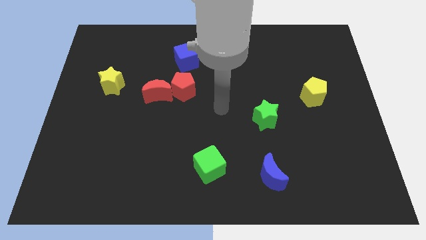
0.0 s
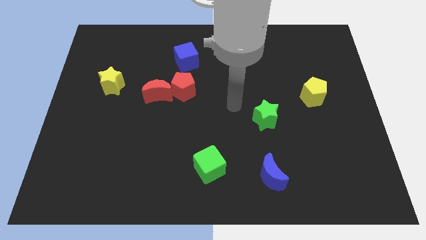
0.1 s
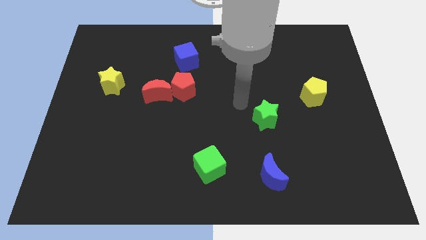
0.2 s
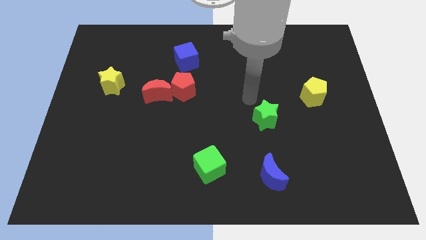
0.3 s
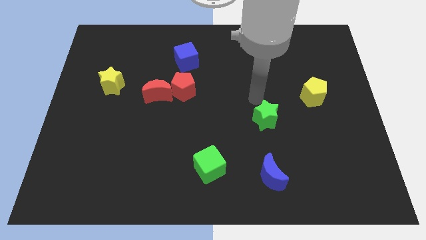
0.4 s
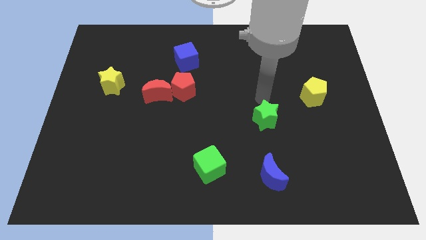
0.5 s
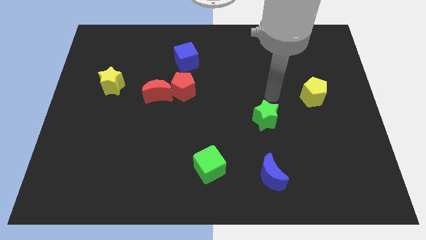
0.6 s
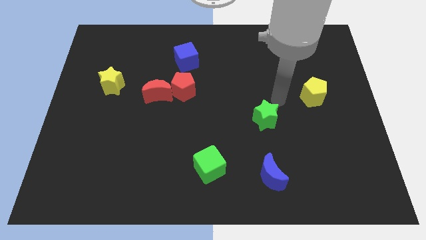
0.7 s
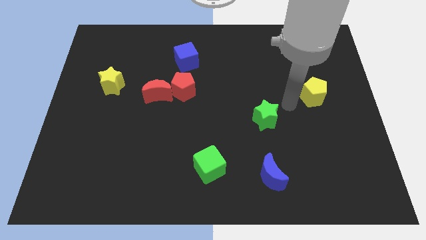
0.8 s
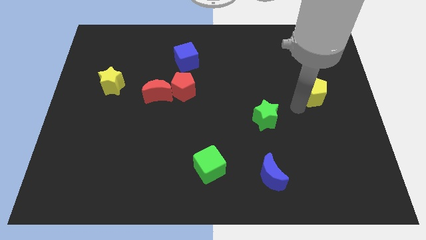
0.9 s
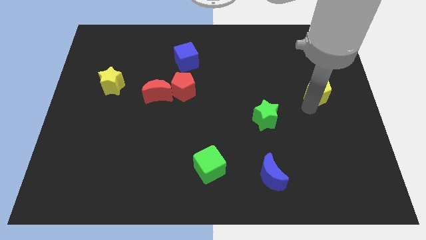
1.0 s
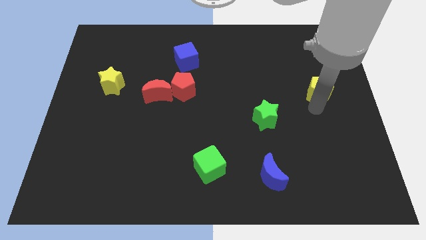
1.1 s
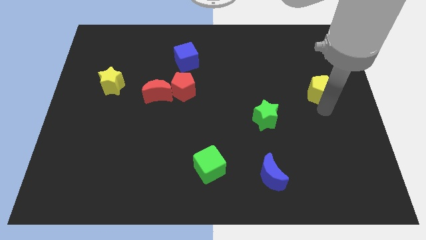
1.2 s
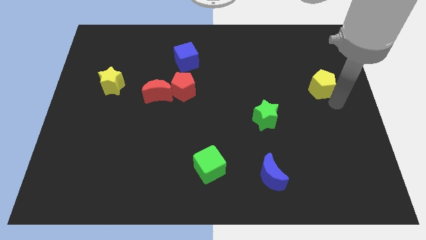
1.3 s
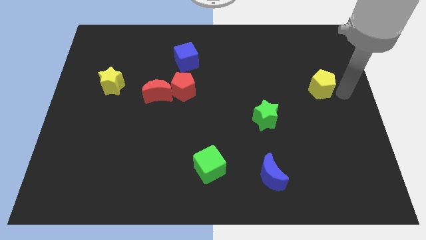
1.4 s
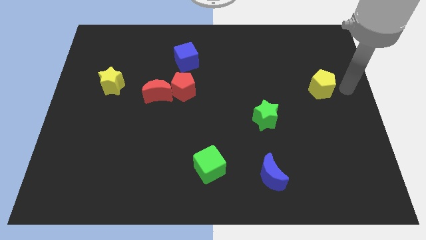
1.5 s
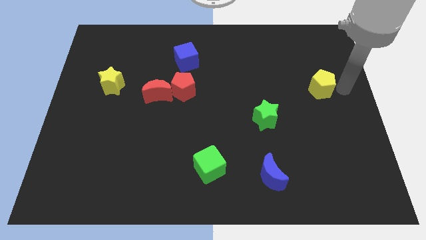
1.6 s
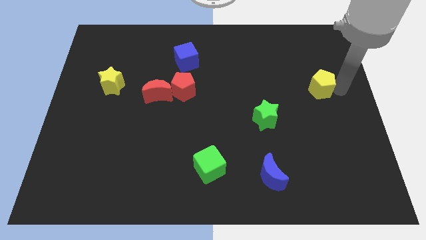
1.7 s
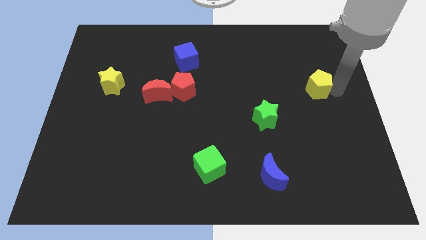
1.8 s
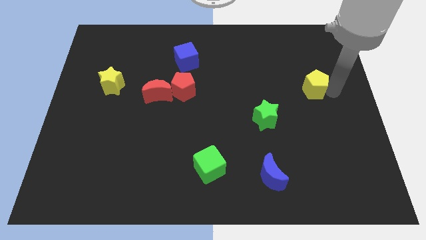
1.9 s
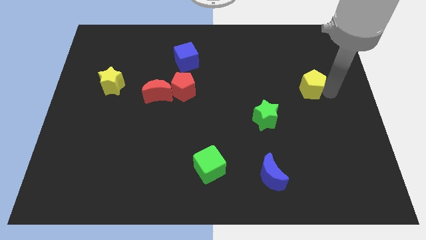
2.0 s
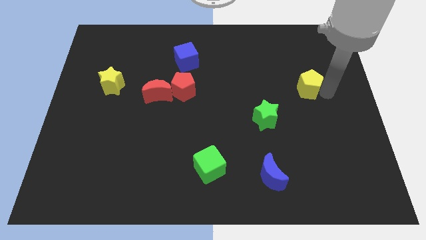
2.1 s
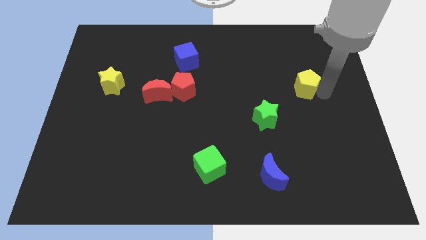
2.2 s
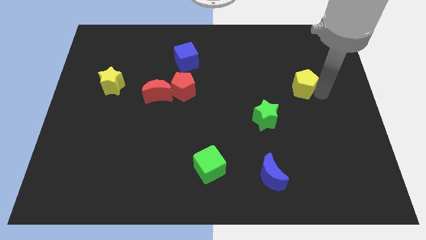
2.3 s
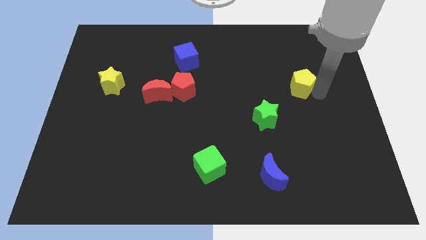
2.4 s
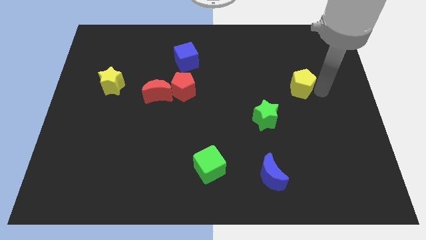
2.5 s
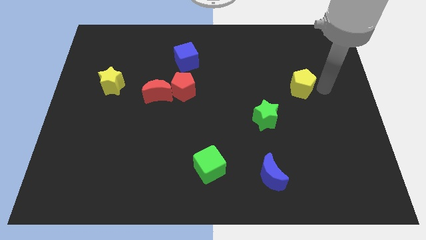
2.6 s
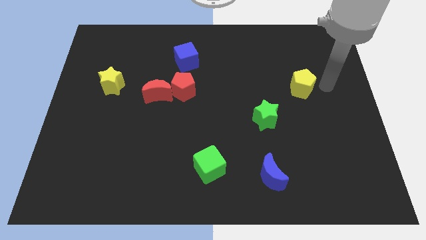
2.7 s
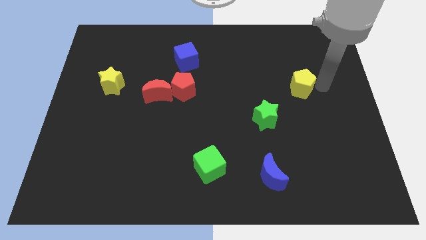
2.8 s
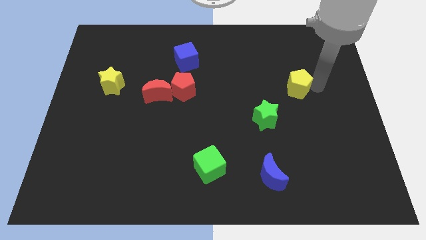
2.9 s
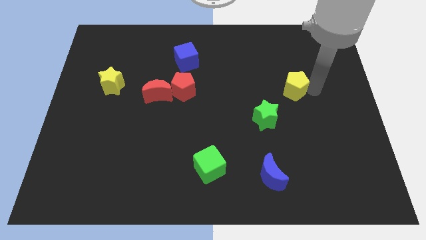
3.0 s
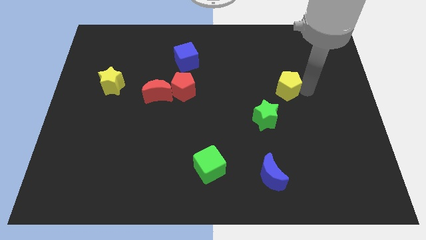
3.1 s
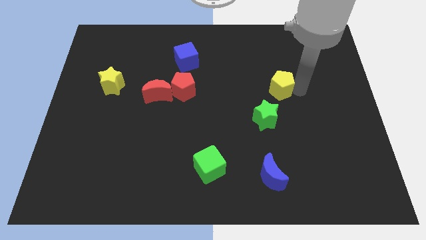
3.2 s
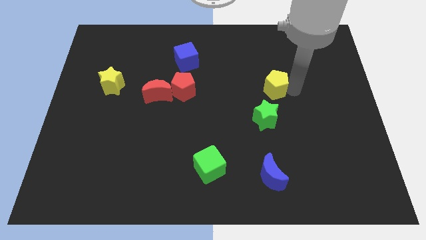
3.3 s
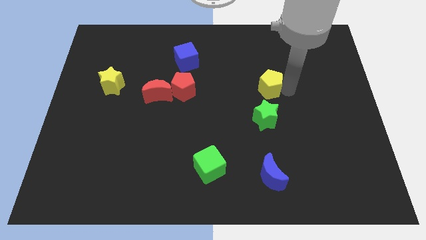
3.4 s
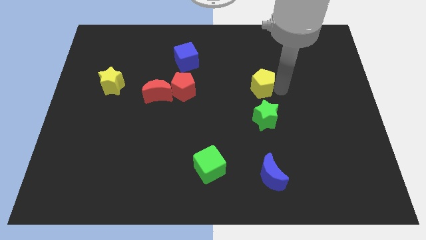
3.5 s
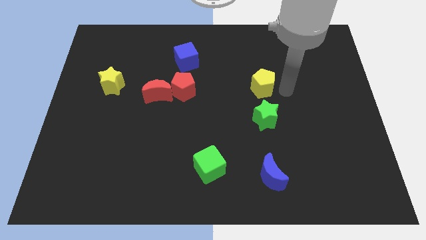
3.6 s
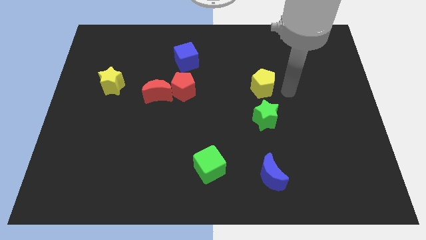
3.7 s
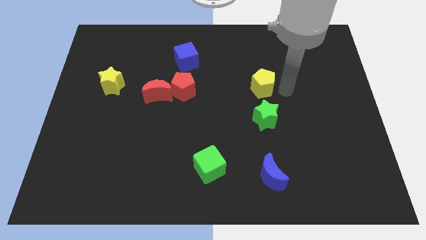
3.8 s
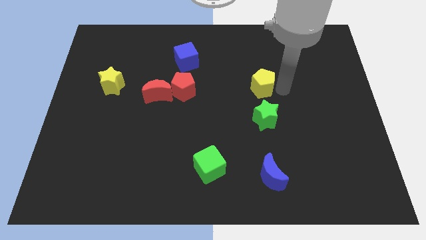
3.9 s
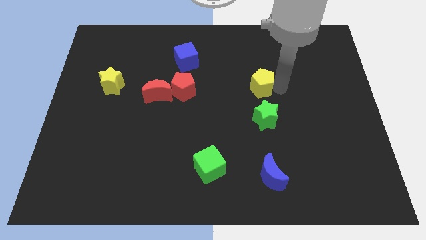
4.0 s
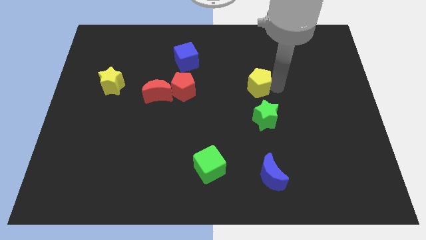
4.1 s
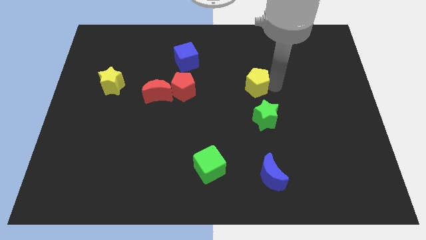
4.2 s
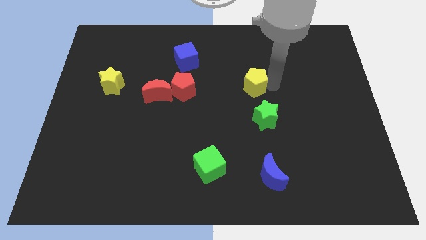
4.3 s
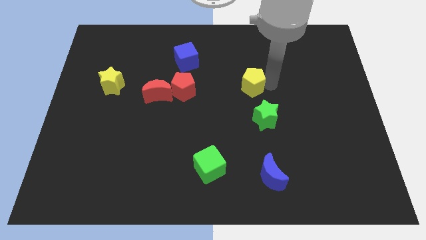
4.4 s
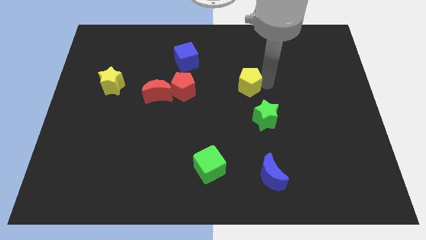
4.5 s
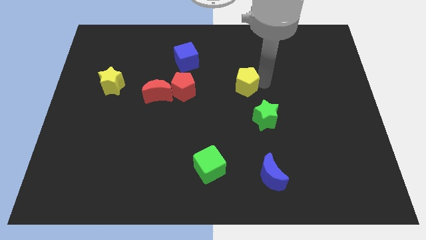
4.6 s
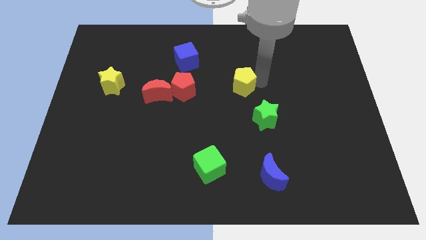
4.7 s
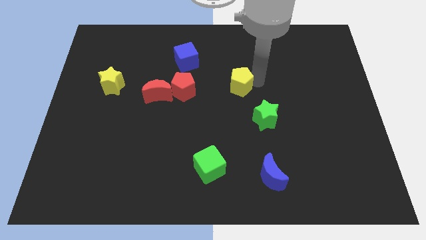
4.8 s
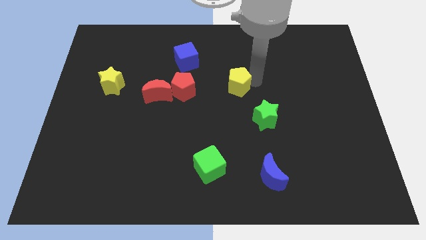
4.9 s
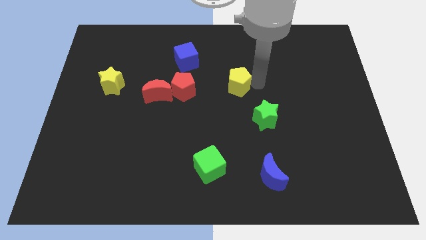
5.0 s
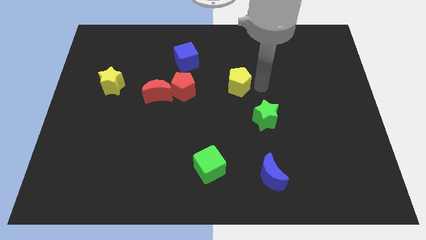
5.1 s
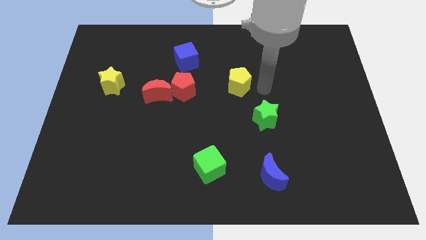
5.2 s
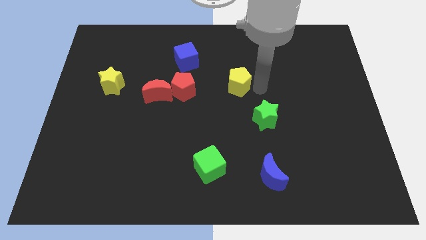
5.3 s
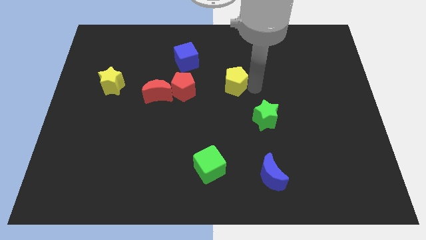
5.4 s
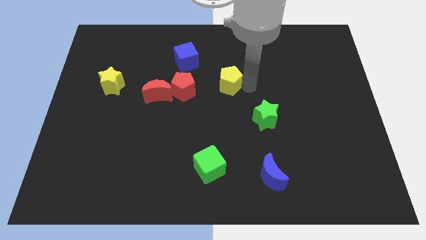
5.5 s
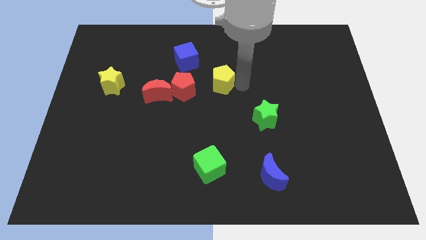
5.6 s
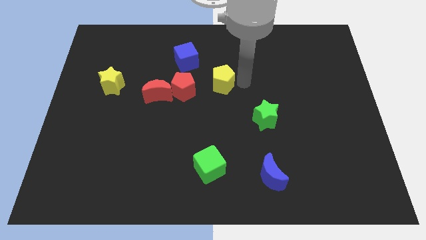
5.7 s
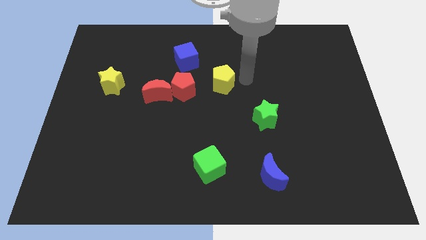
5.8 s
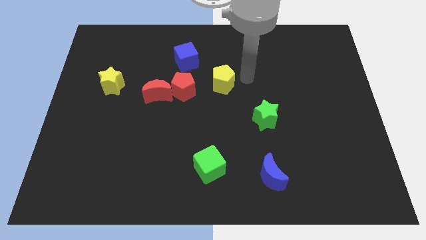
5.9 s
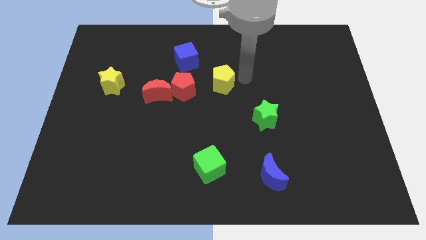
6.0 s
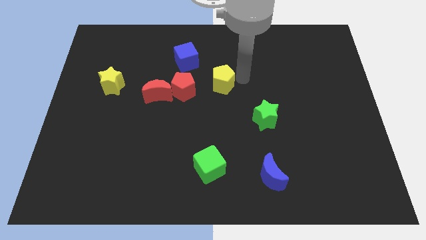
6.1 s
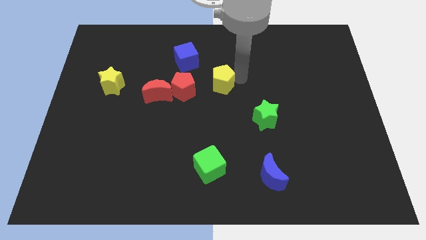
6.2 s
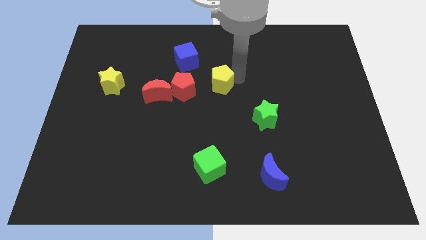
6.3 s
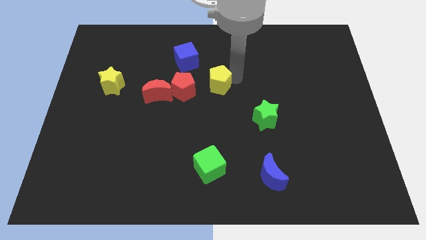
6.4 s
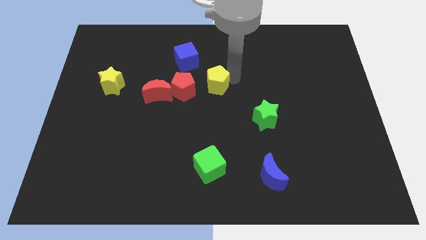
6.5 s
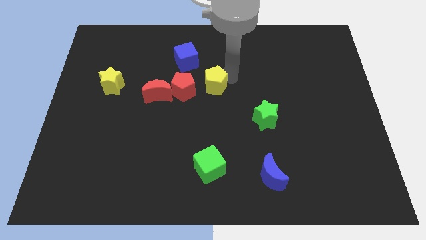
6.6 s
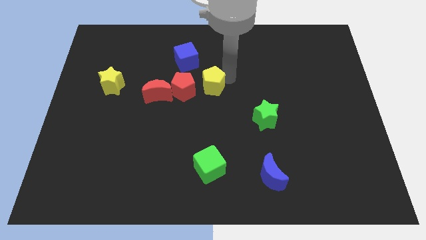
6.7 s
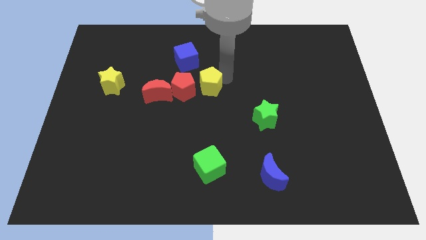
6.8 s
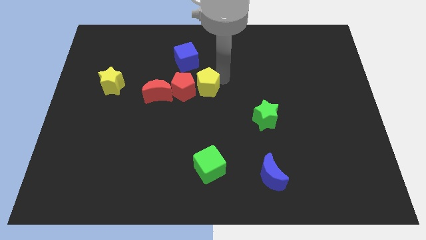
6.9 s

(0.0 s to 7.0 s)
put the yellow pentagon to the red pentagon

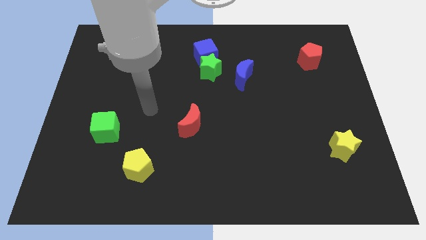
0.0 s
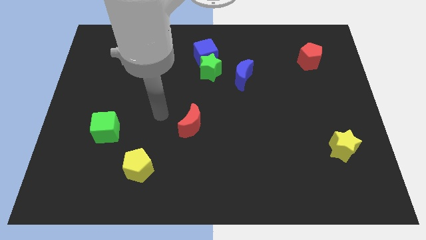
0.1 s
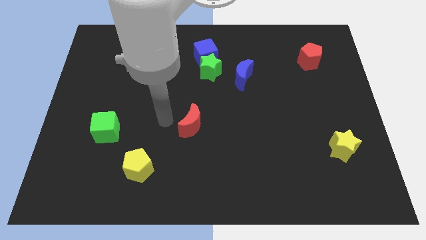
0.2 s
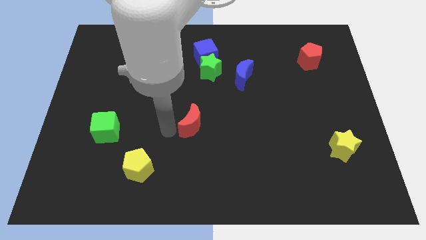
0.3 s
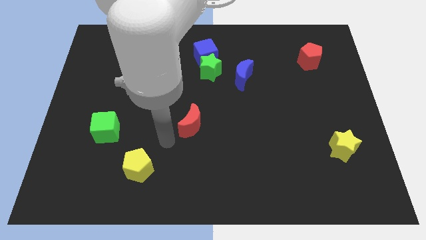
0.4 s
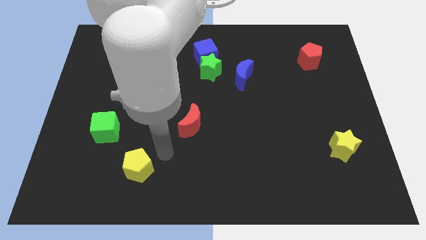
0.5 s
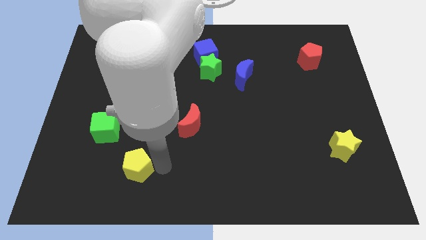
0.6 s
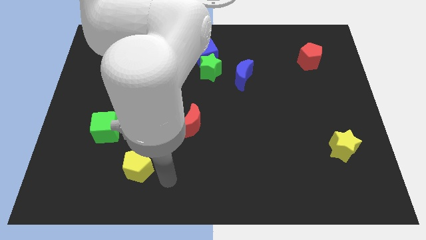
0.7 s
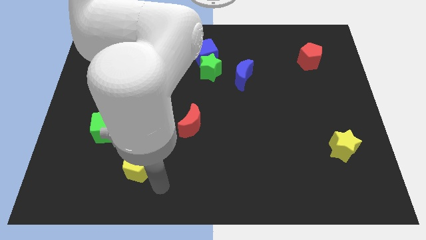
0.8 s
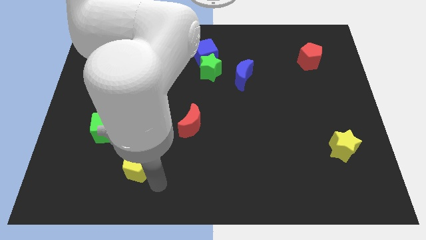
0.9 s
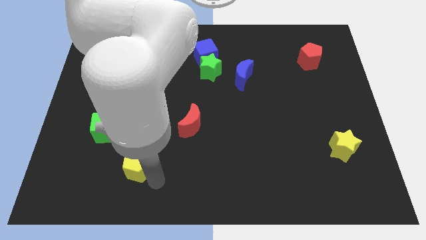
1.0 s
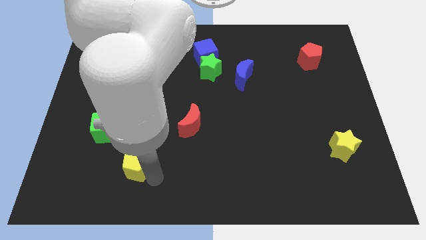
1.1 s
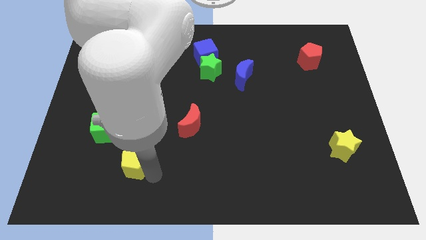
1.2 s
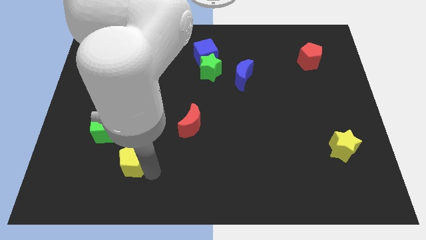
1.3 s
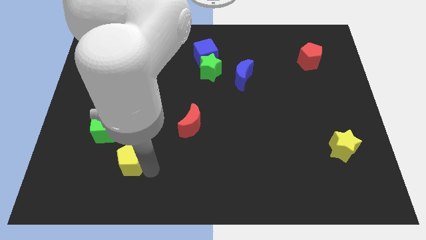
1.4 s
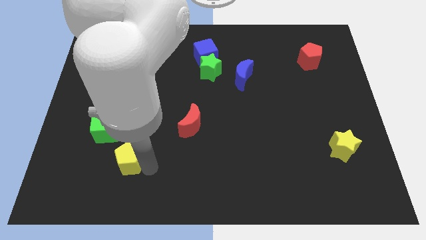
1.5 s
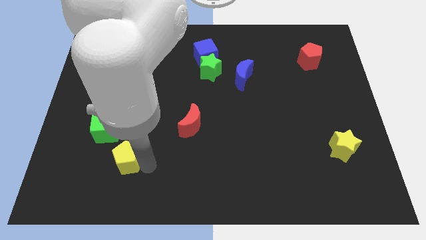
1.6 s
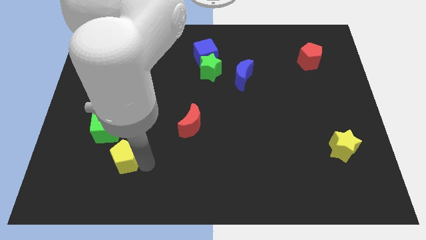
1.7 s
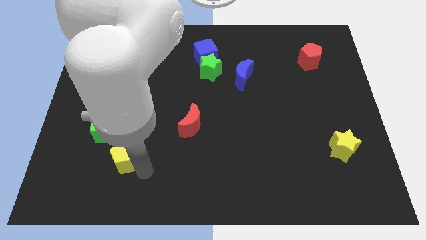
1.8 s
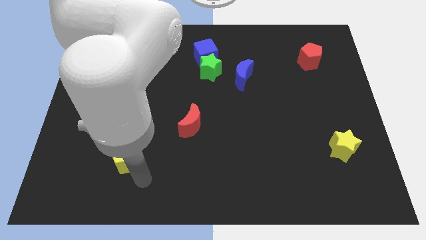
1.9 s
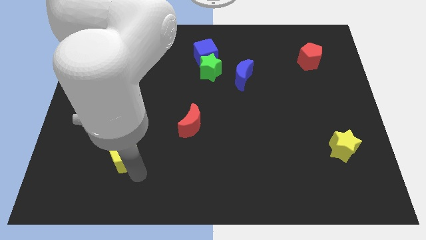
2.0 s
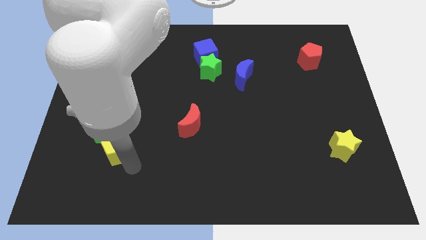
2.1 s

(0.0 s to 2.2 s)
put the yellow pentagon towards the green cube
